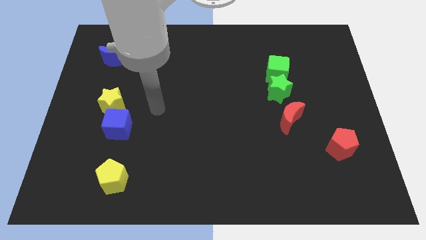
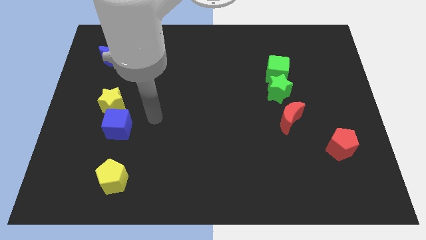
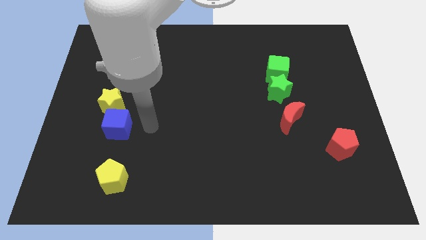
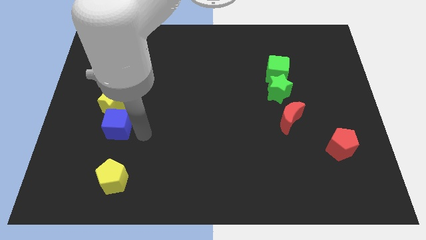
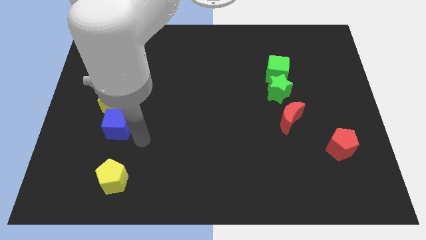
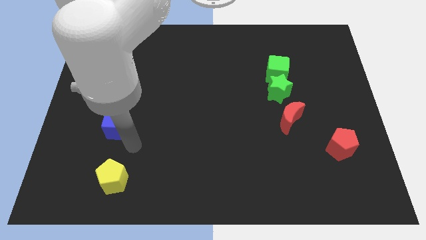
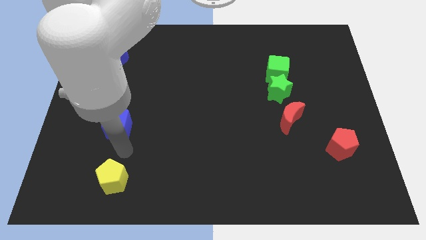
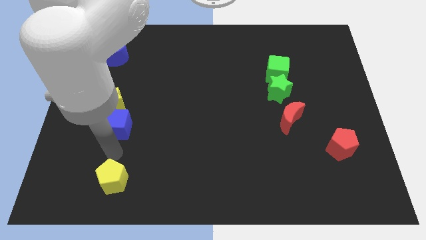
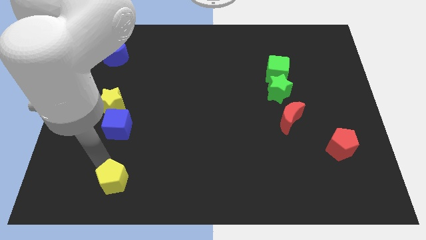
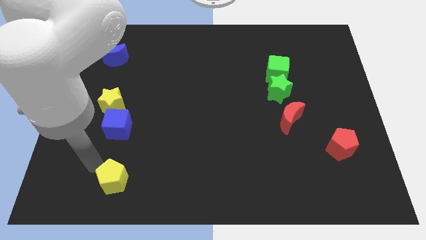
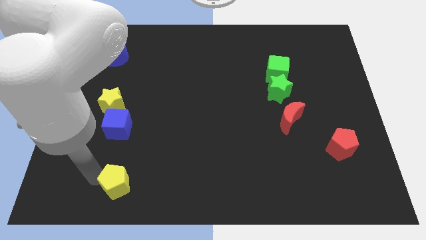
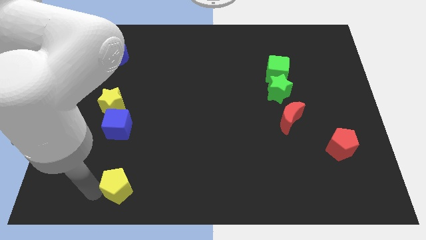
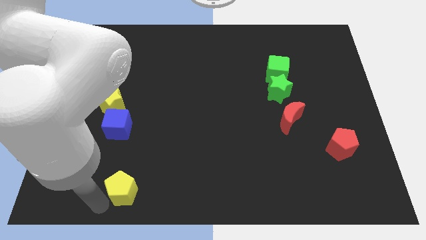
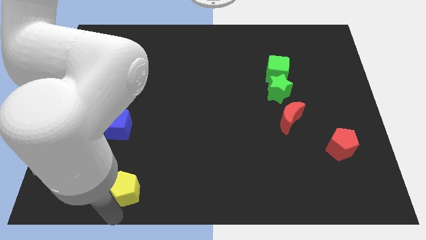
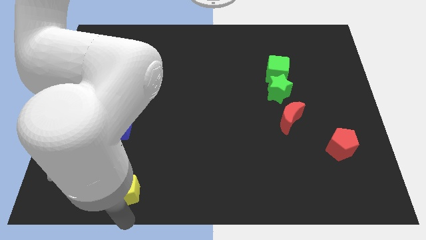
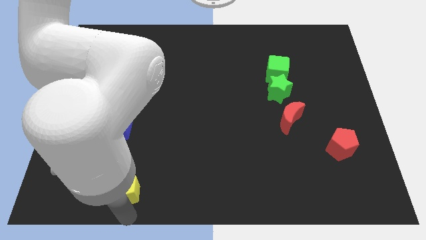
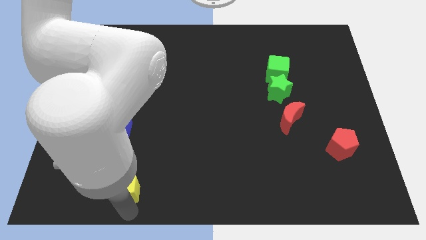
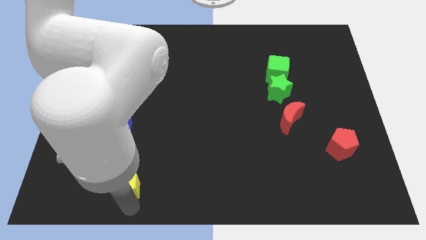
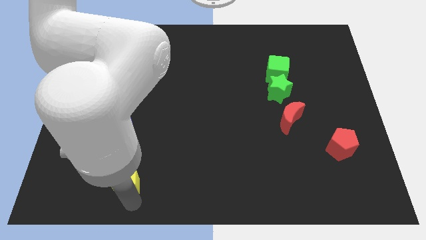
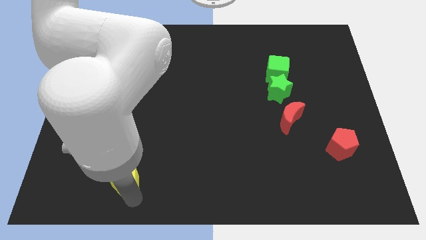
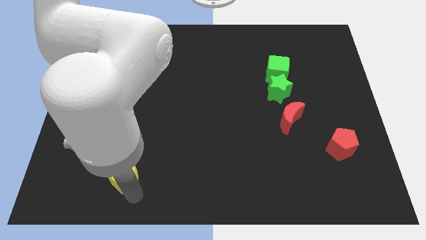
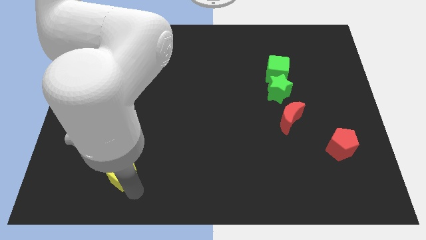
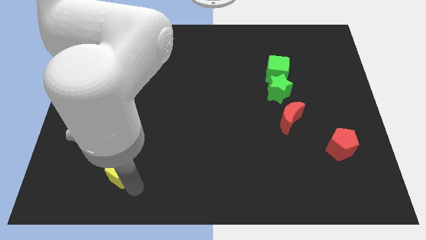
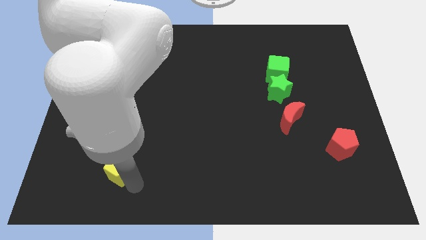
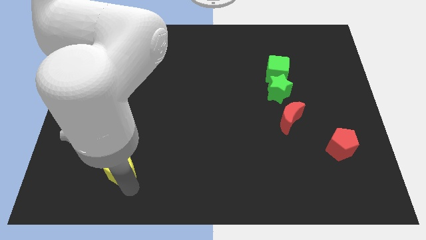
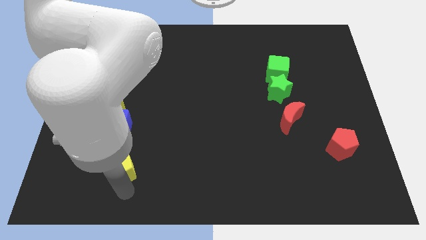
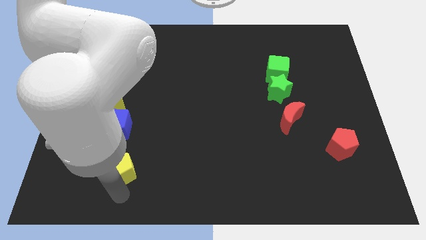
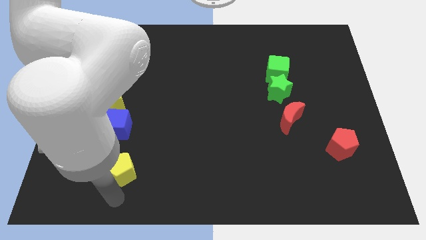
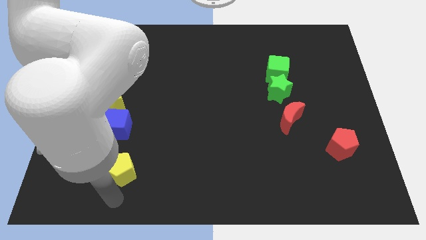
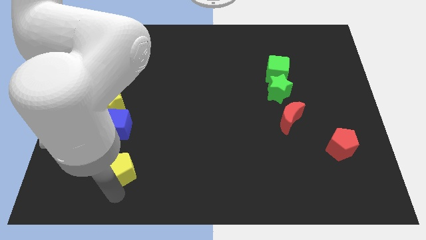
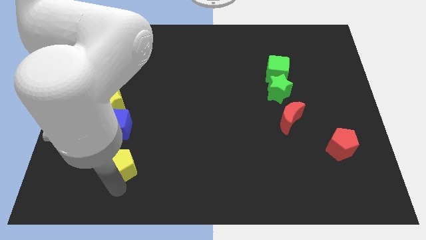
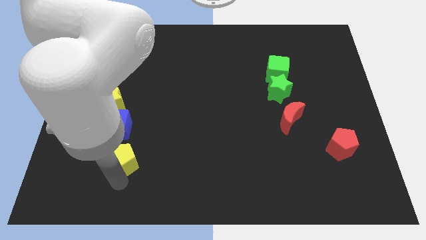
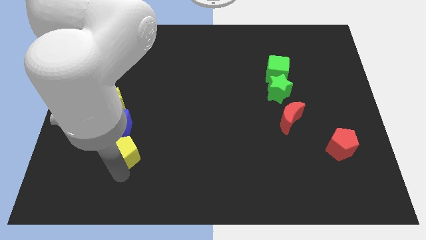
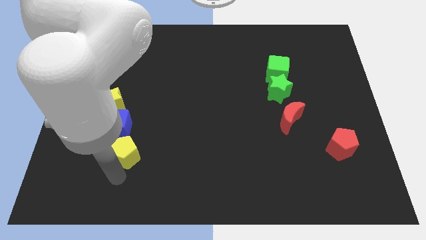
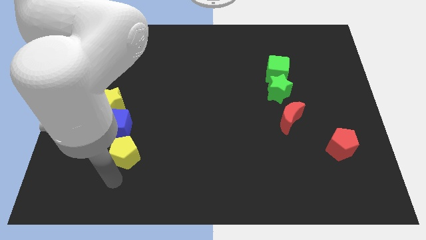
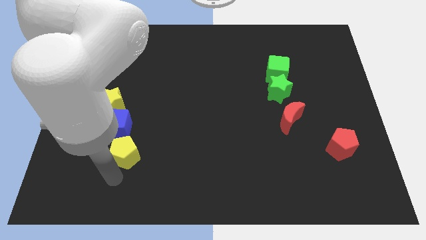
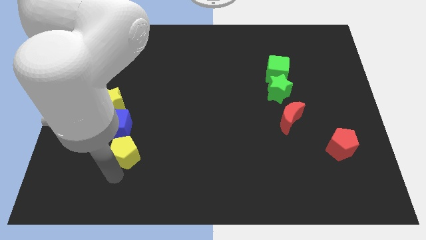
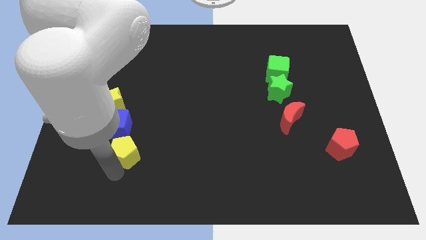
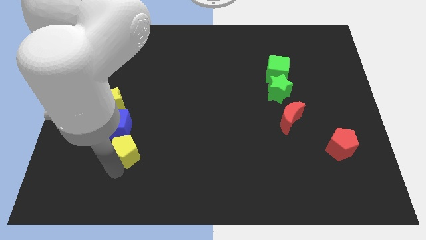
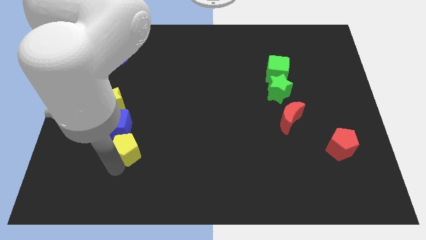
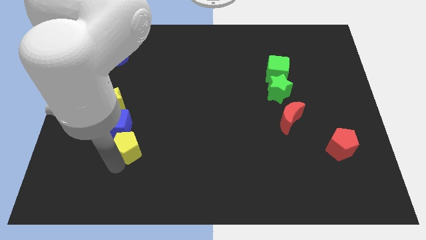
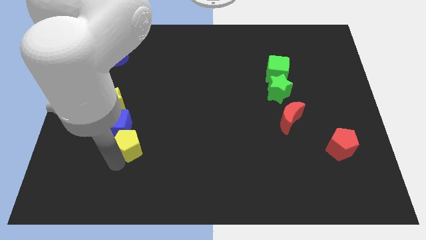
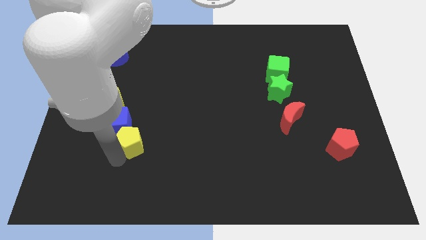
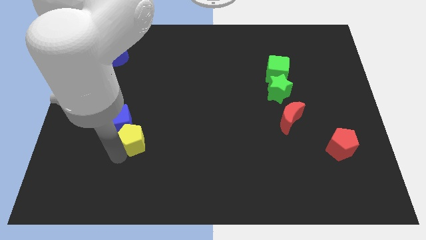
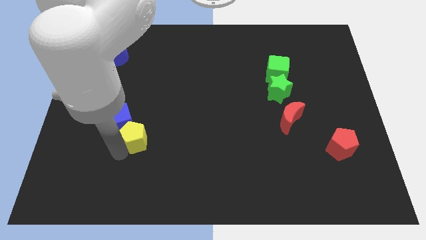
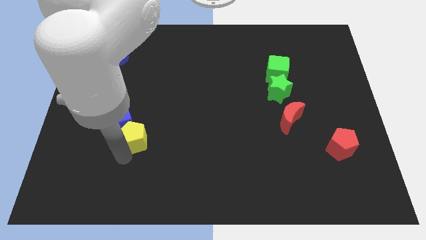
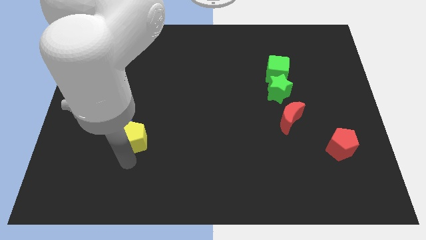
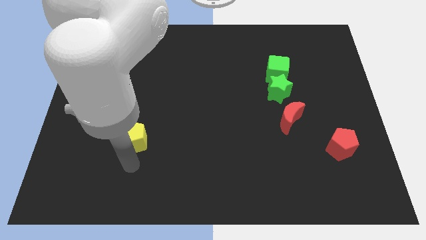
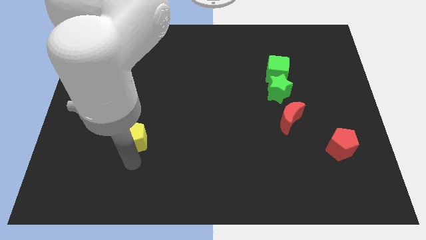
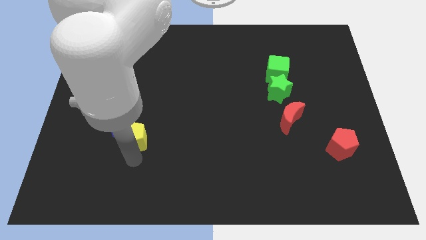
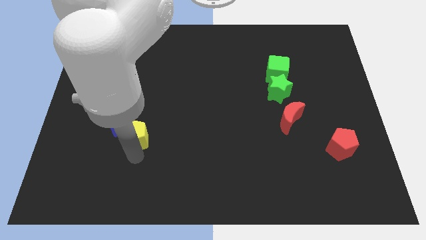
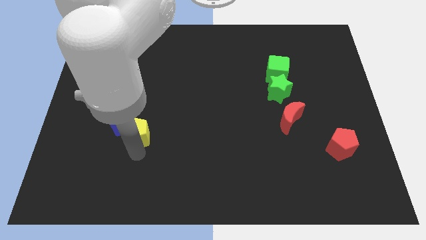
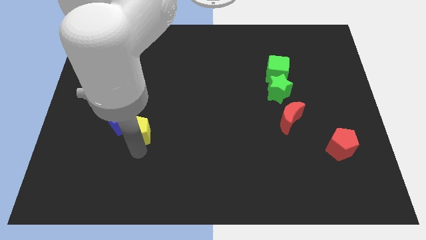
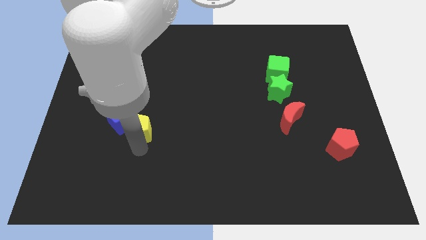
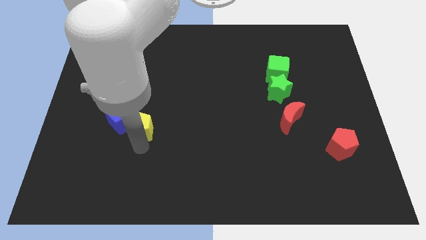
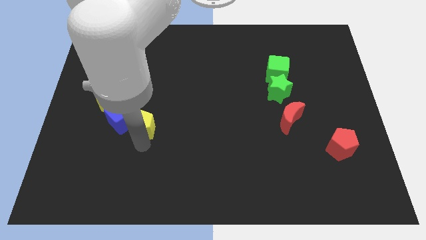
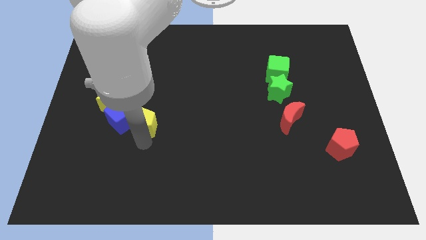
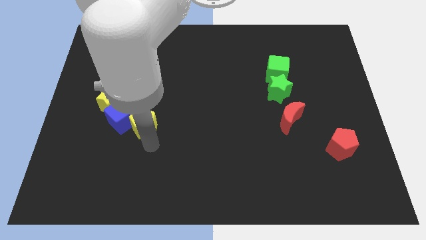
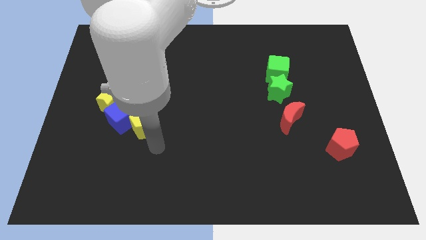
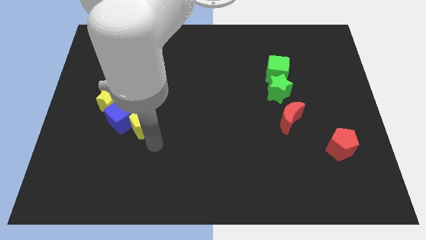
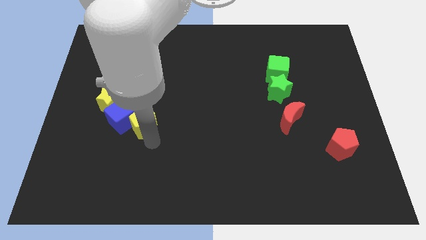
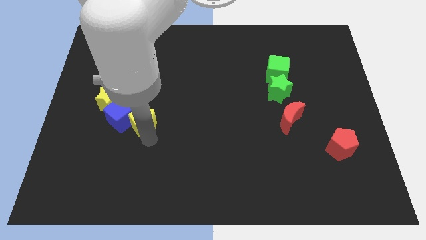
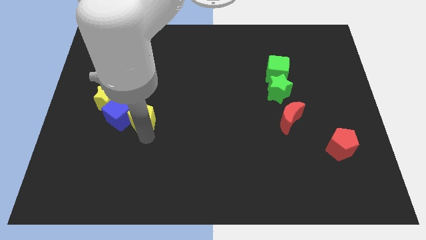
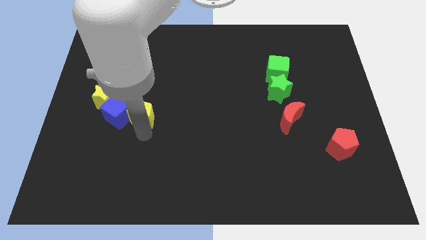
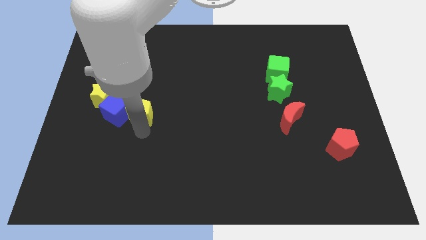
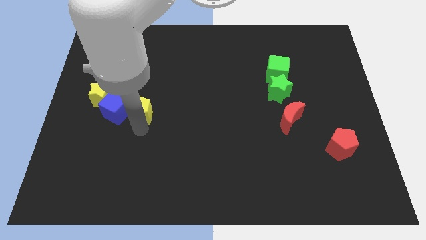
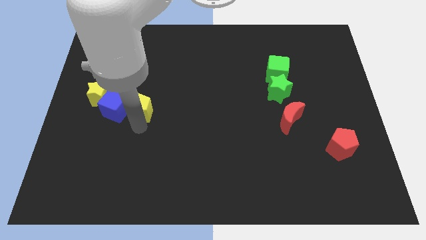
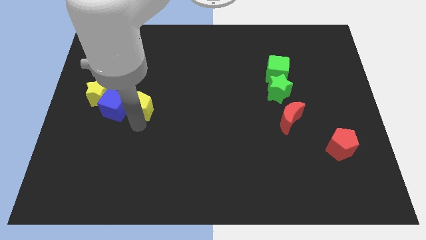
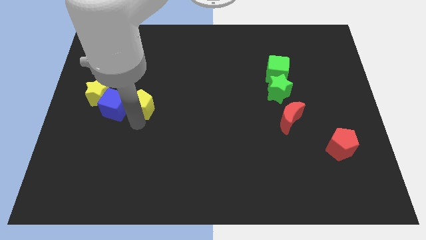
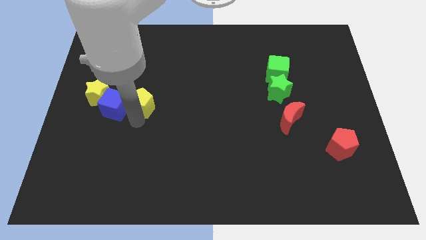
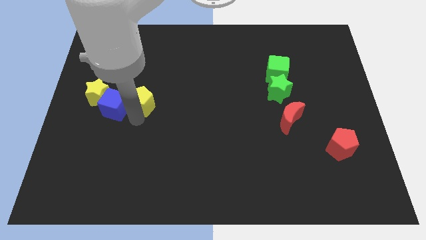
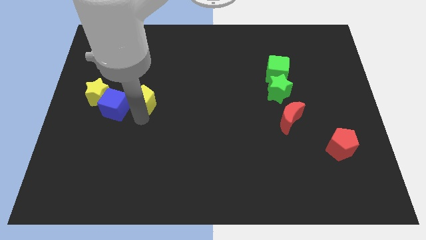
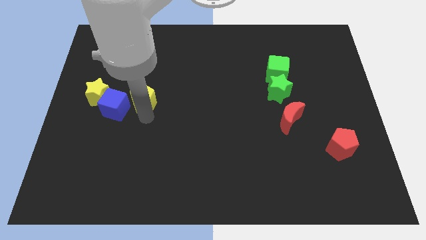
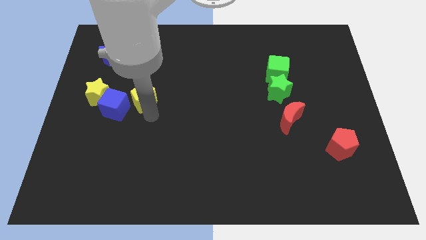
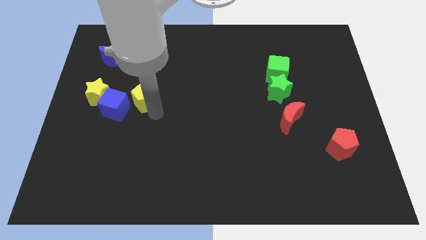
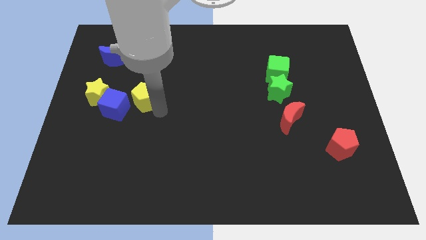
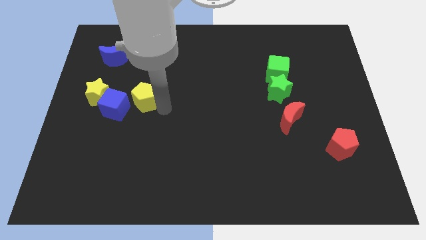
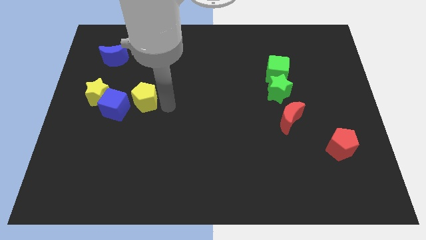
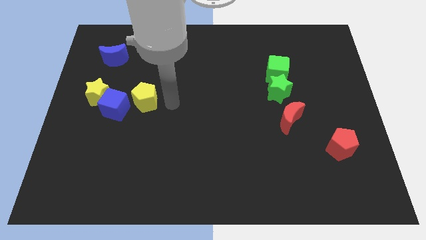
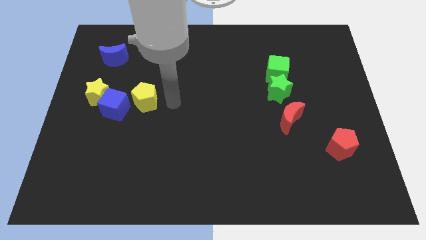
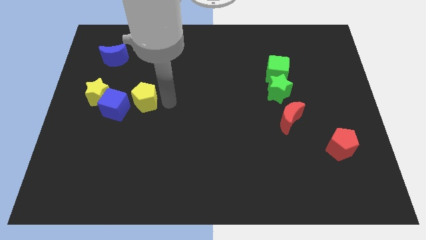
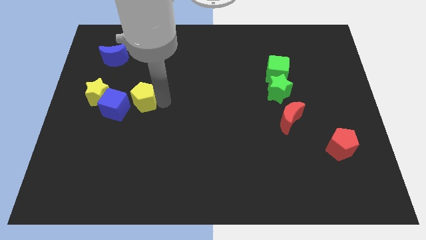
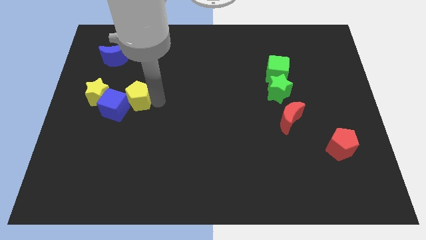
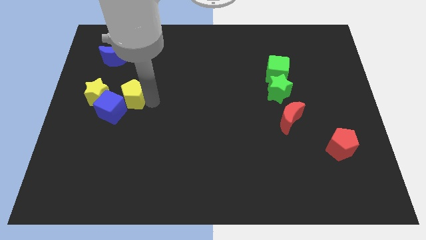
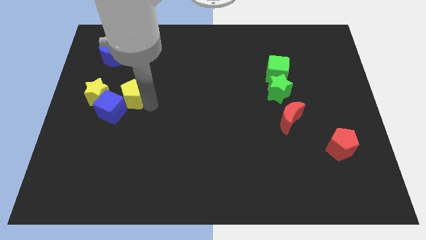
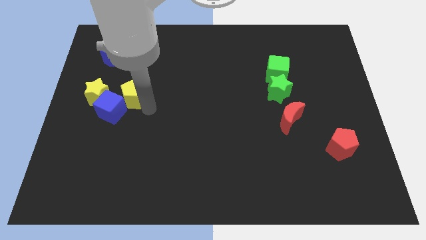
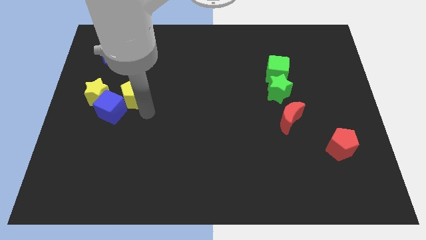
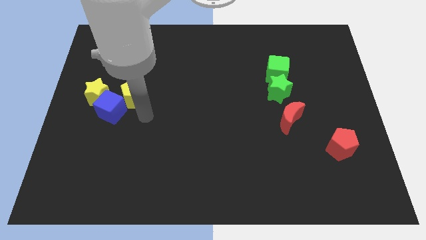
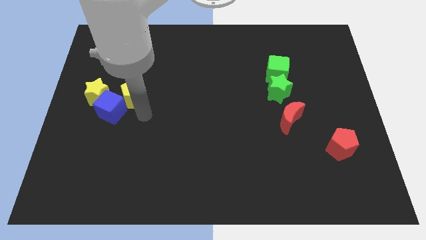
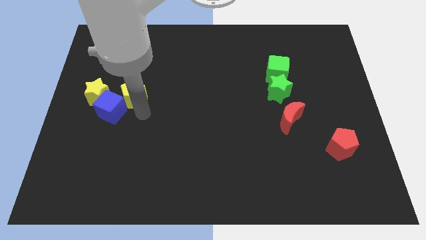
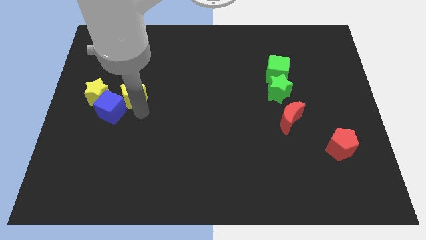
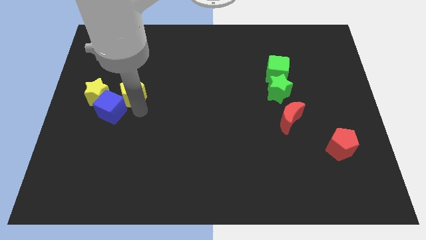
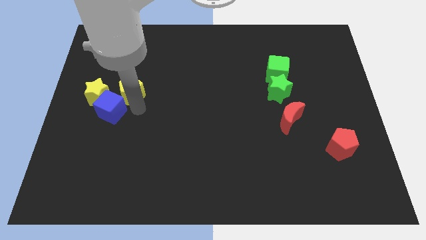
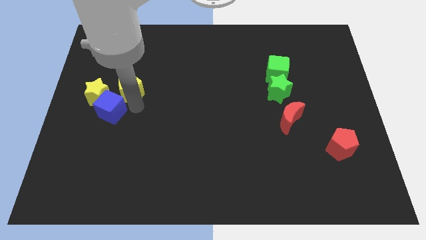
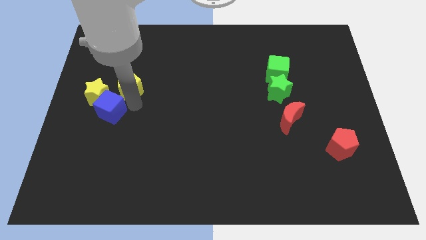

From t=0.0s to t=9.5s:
put the yellow pentagon diagonally down and to the right of the blue moon
